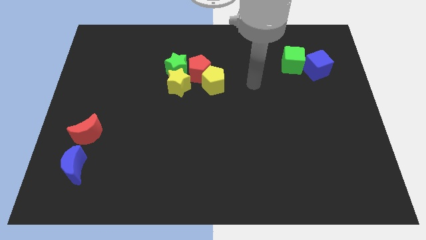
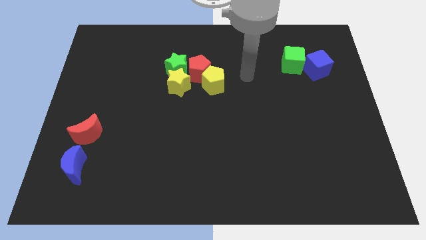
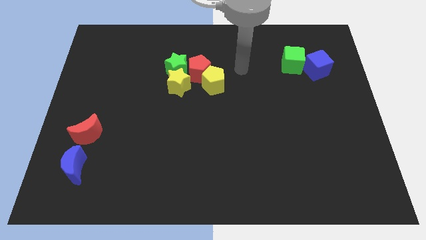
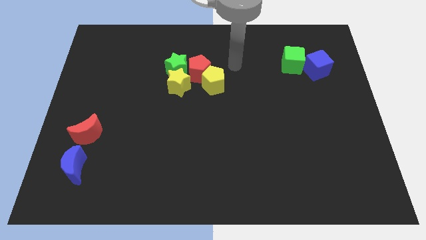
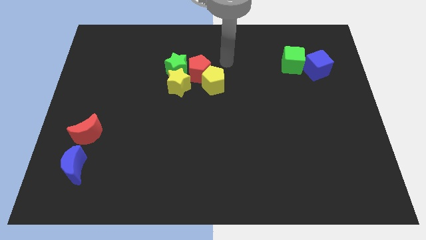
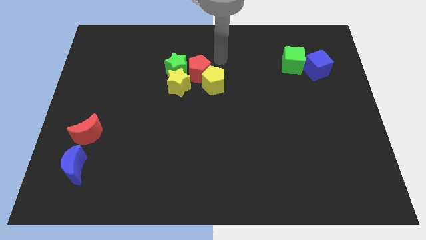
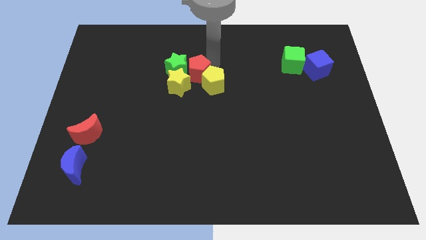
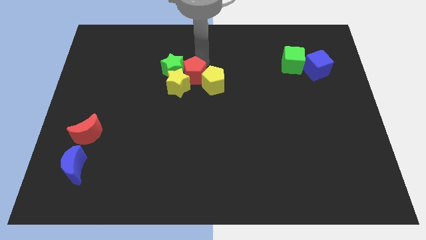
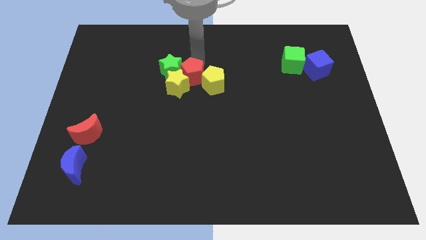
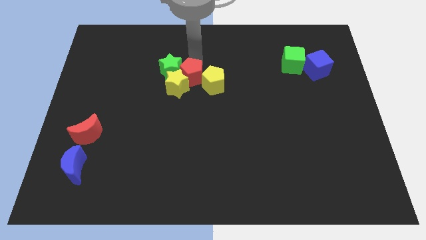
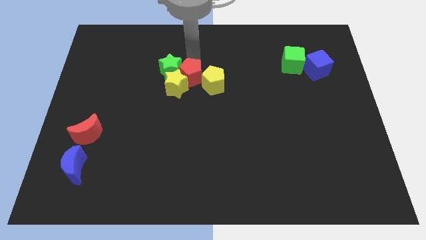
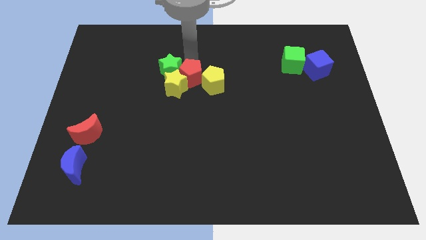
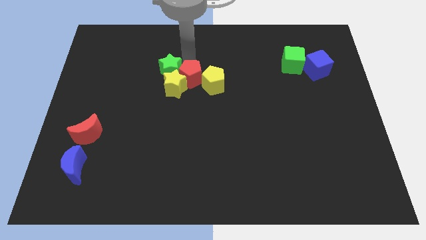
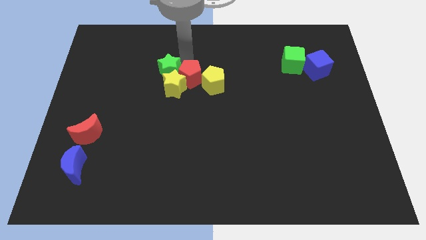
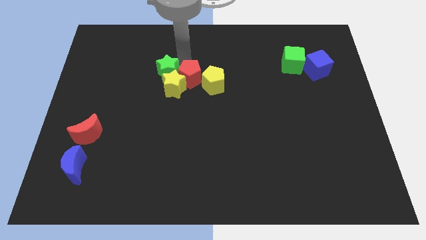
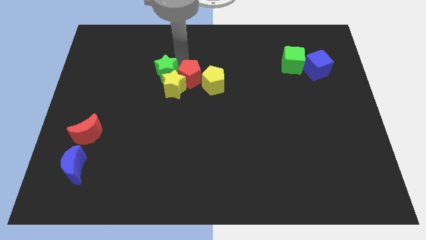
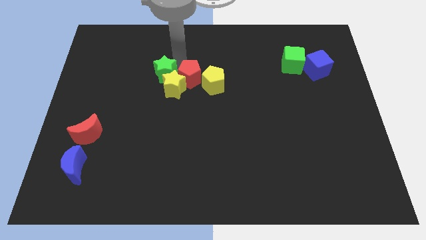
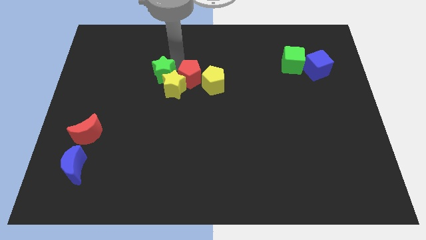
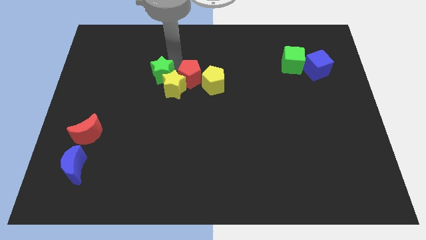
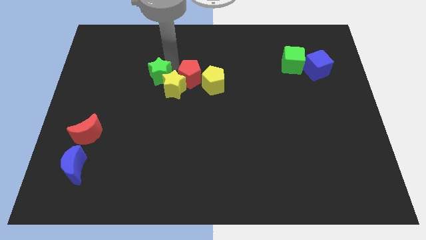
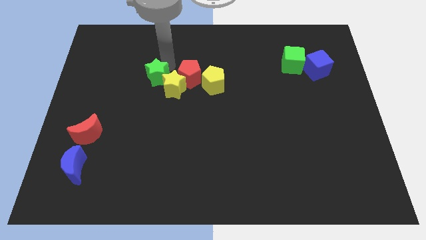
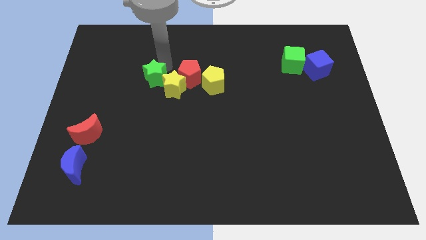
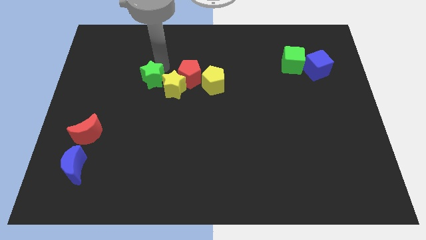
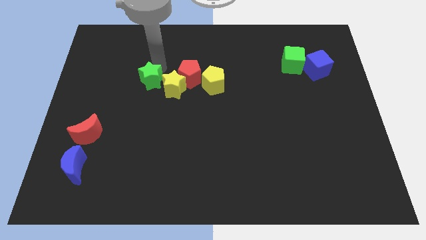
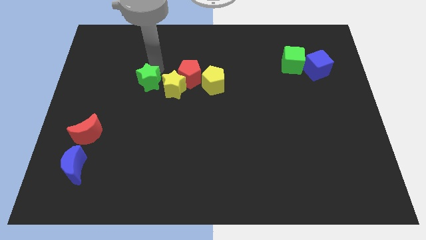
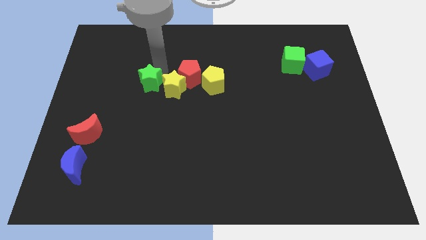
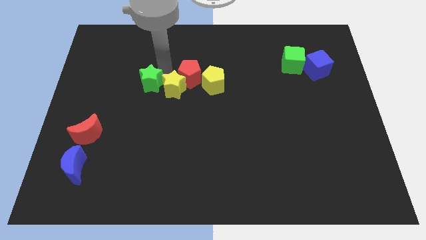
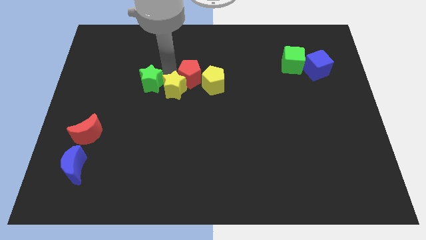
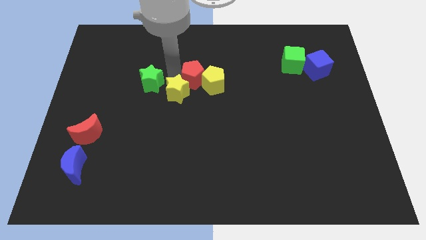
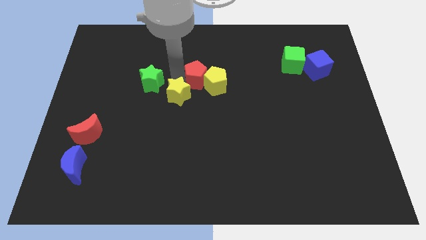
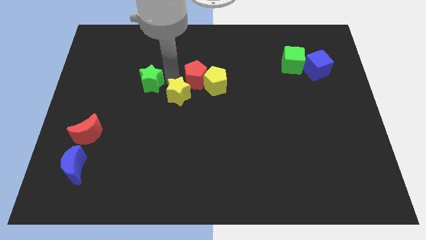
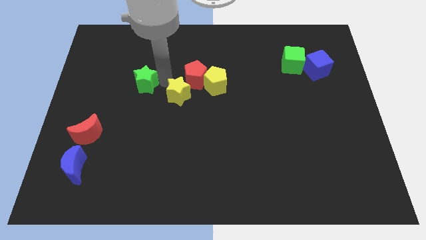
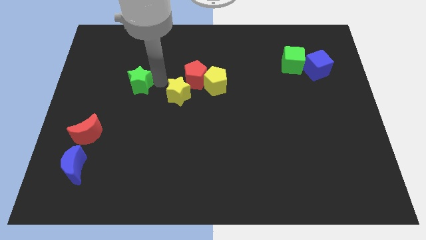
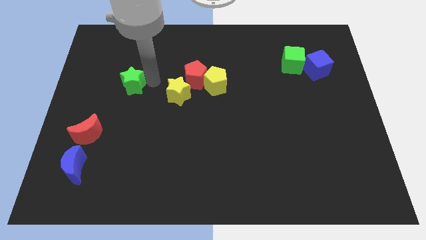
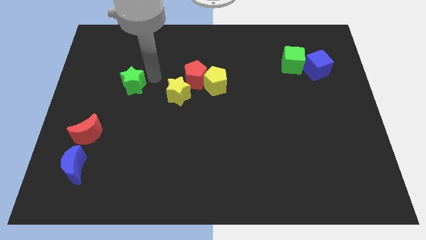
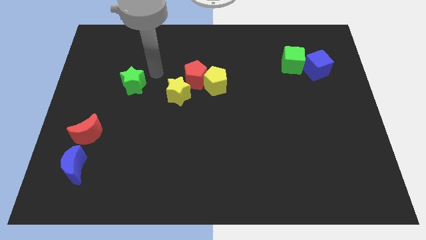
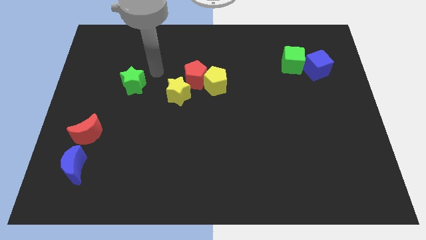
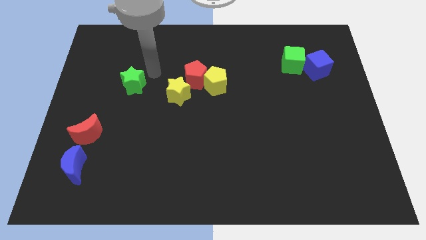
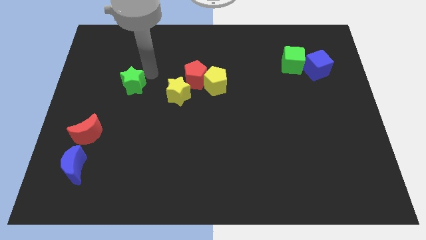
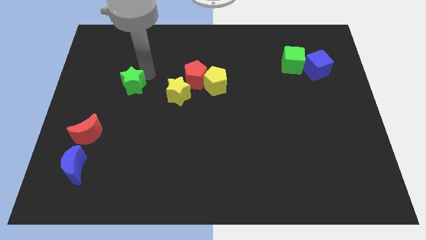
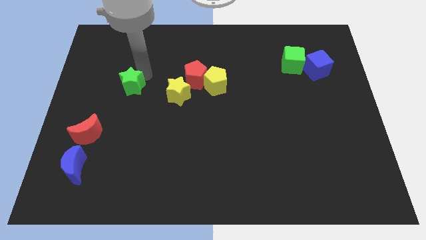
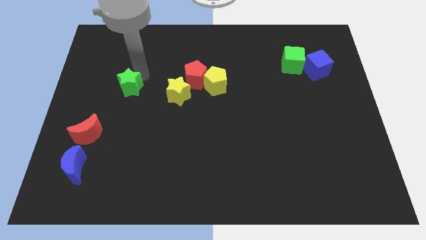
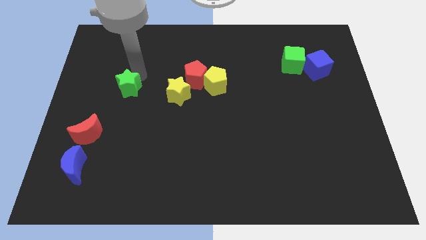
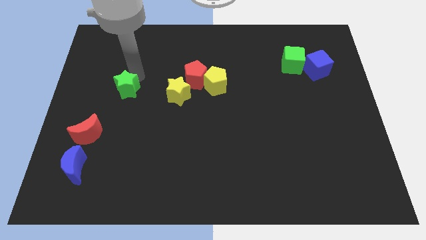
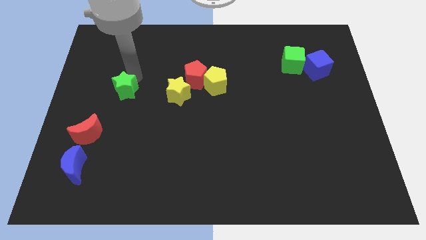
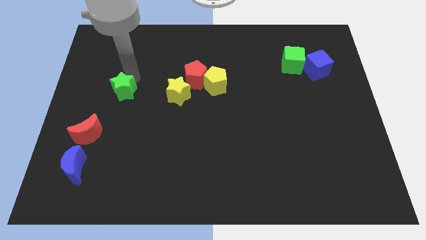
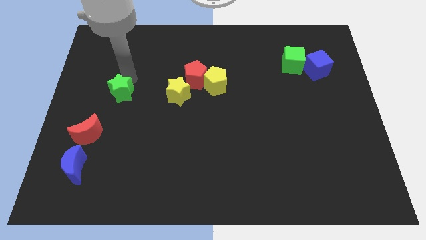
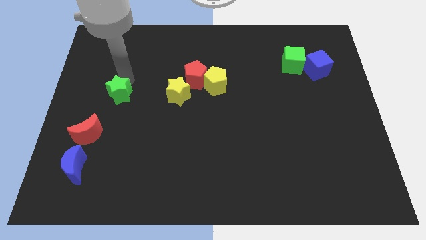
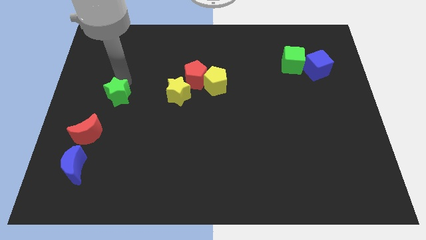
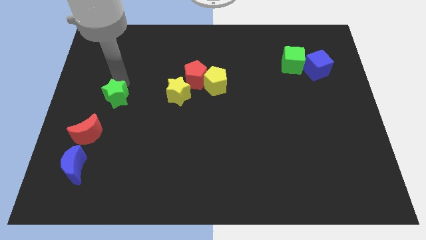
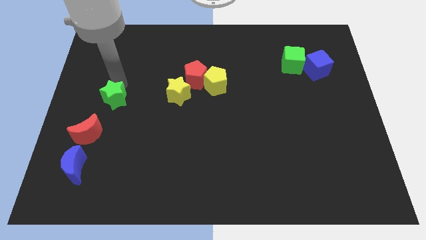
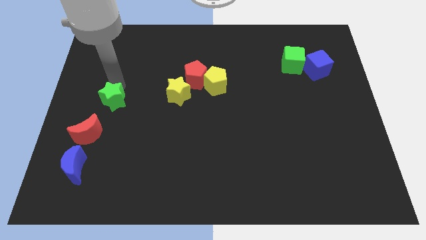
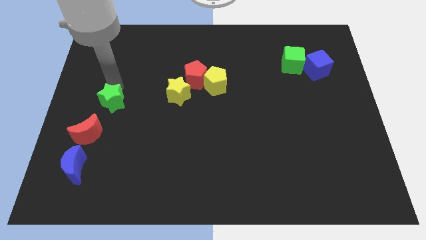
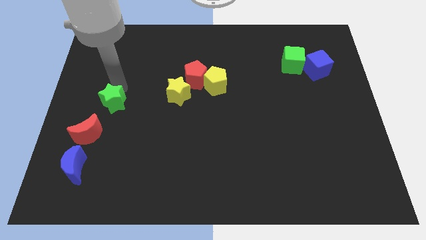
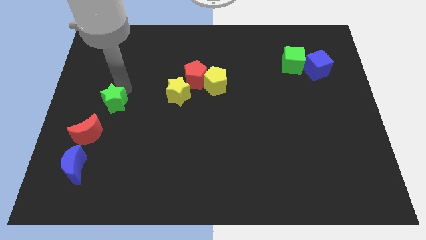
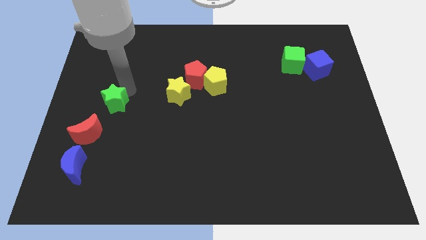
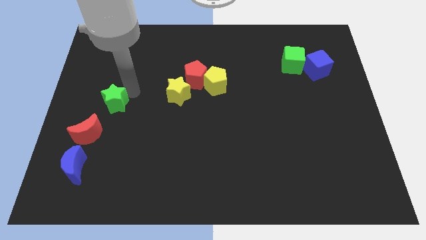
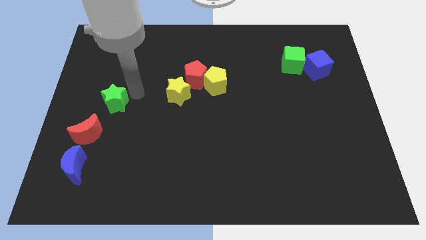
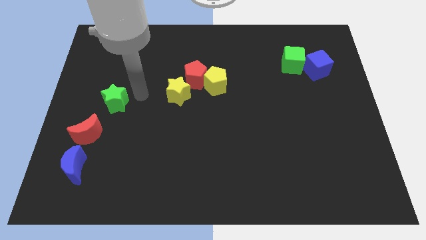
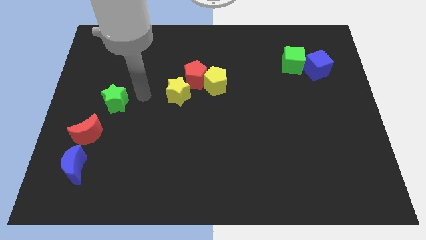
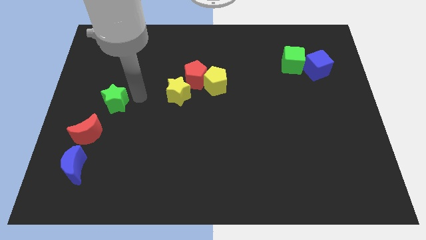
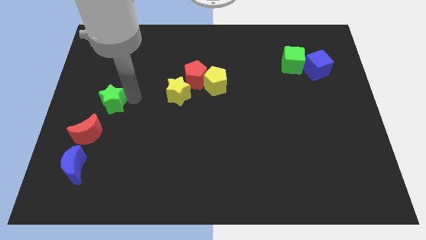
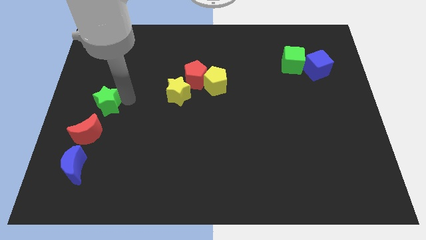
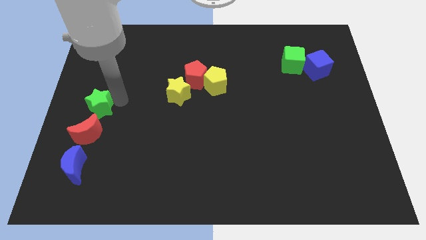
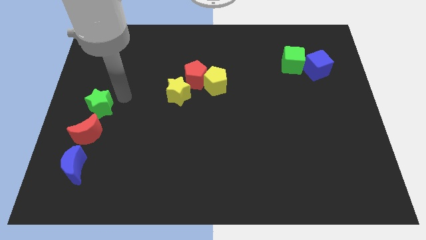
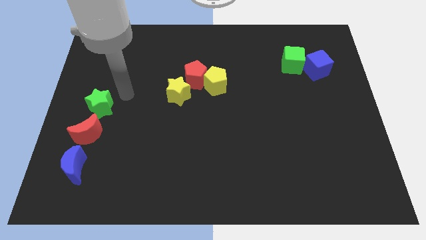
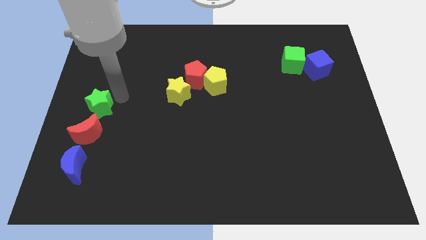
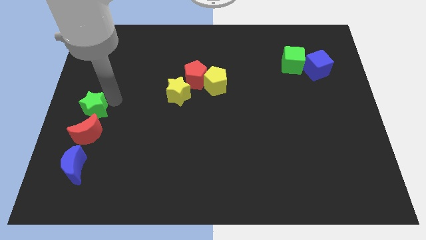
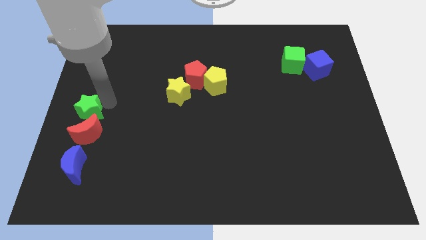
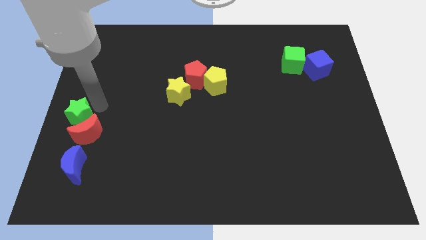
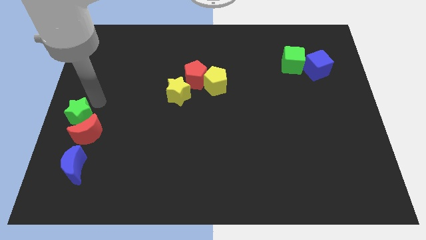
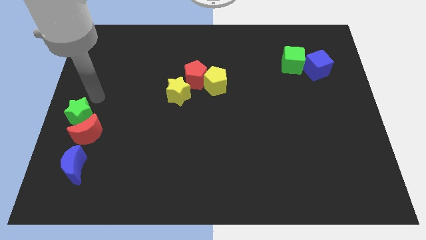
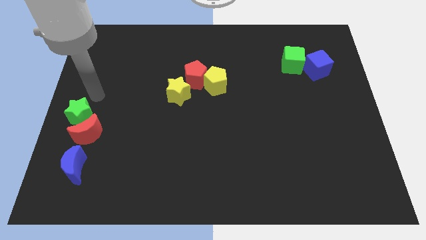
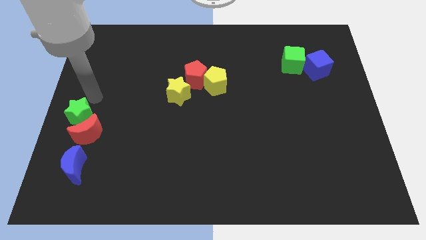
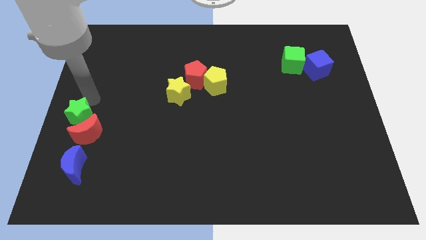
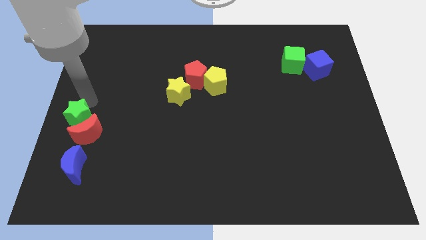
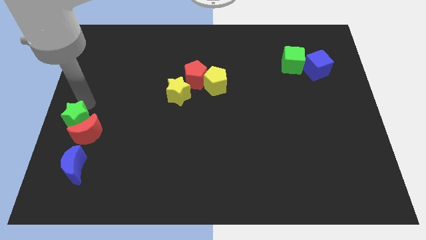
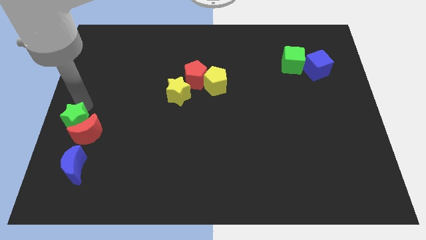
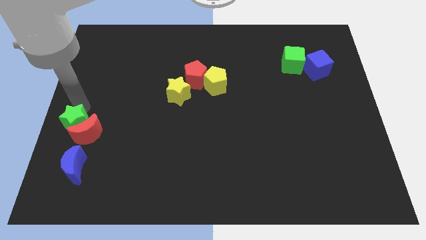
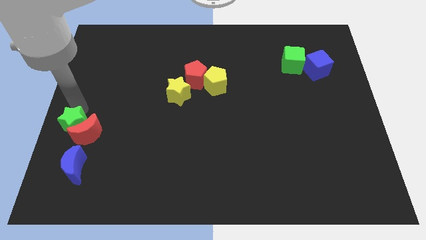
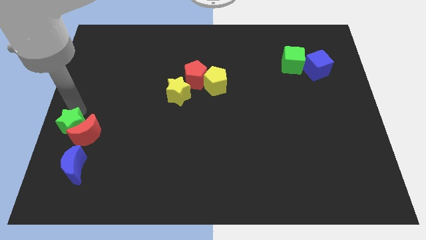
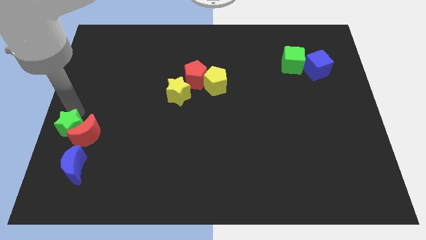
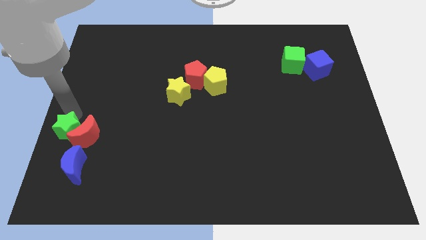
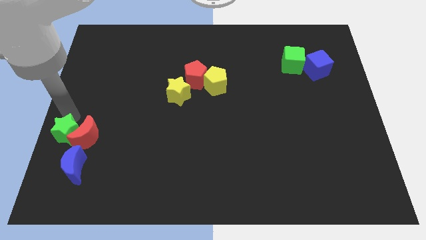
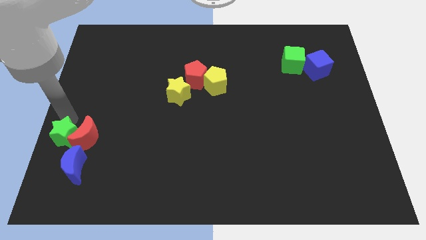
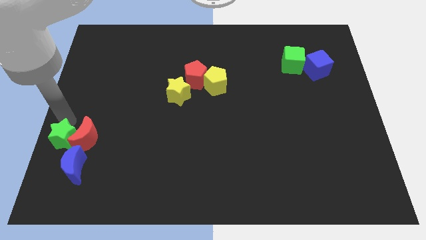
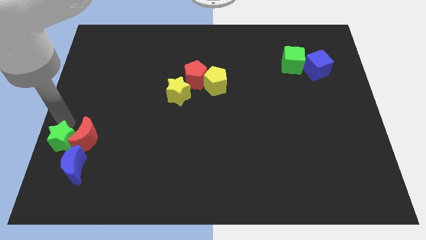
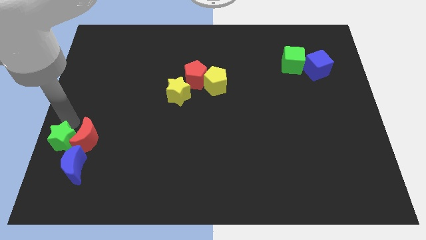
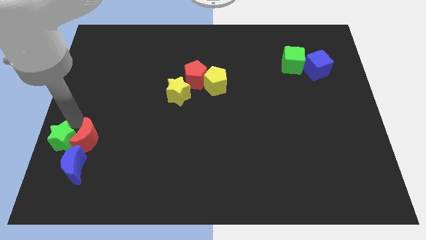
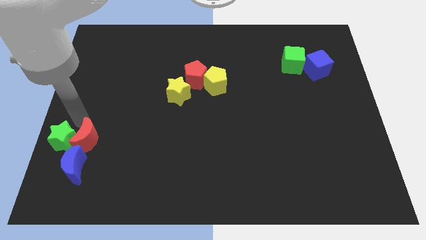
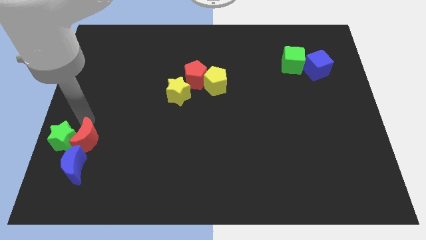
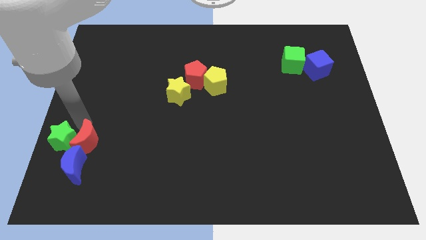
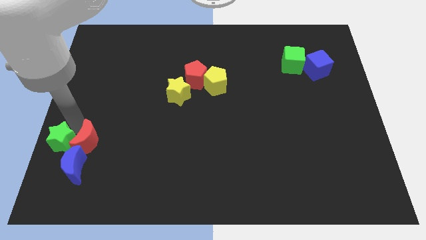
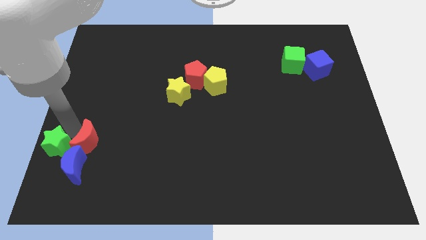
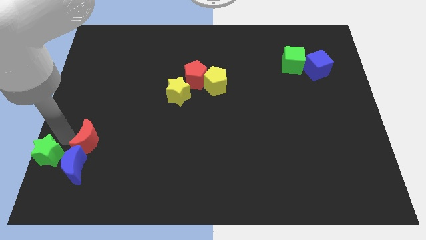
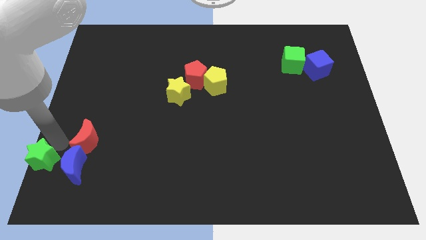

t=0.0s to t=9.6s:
push the green star to the bottom left
